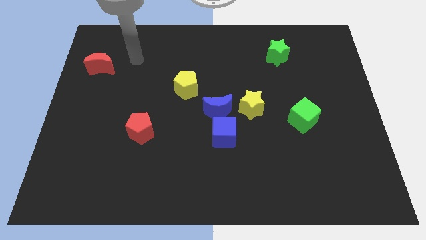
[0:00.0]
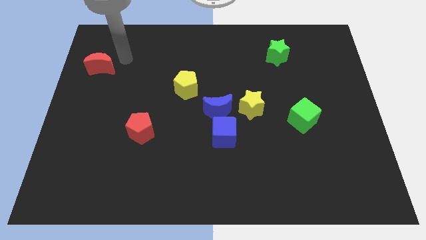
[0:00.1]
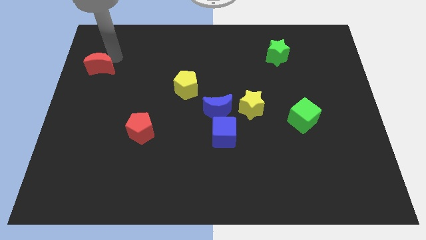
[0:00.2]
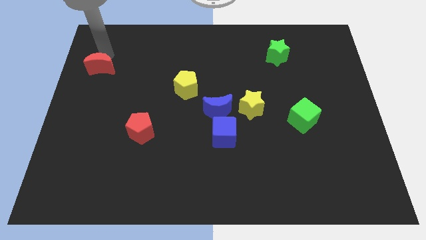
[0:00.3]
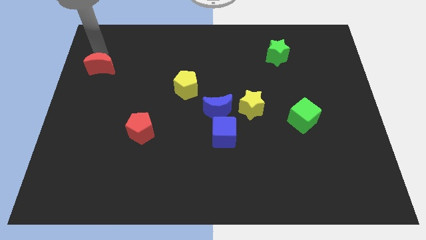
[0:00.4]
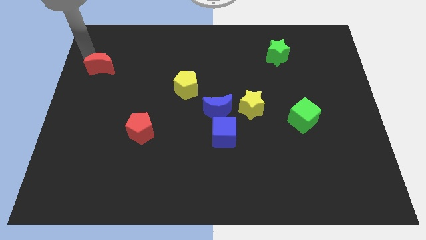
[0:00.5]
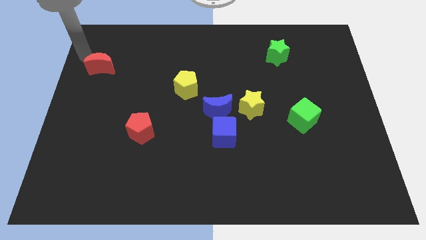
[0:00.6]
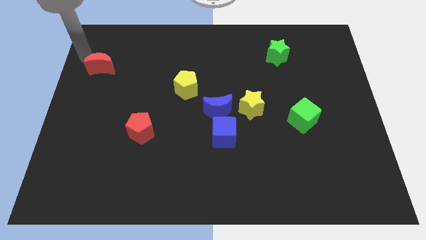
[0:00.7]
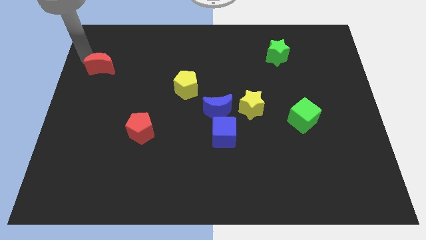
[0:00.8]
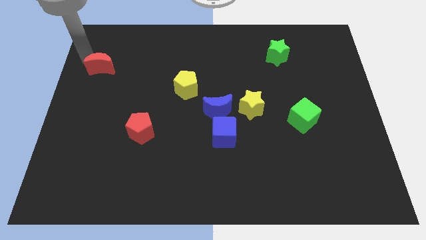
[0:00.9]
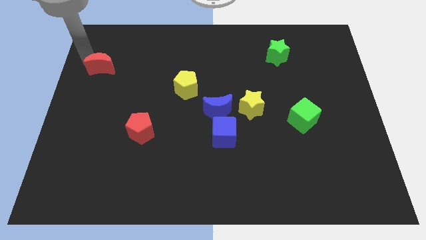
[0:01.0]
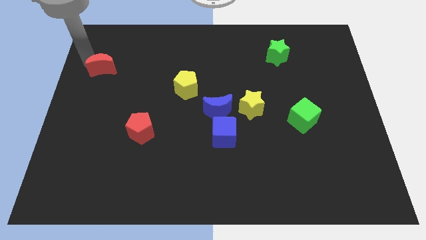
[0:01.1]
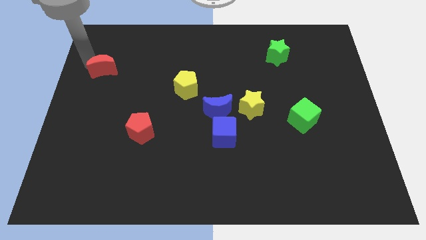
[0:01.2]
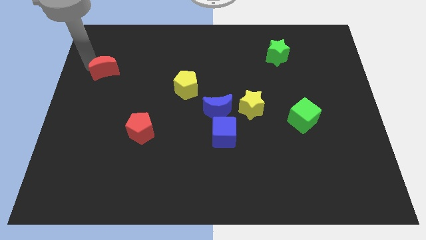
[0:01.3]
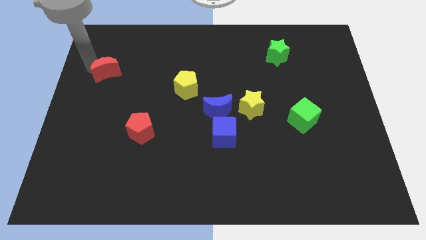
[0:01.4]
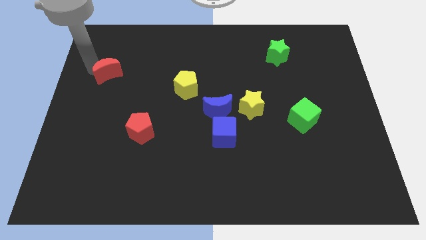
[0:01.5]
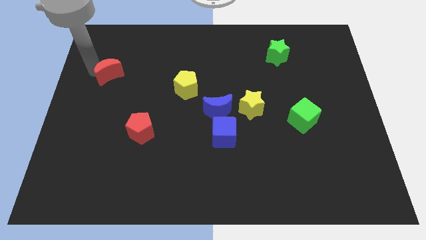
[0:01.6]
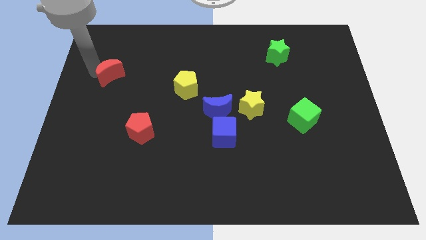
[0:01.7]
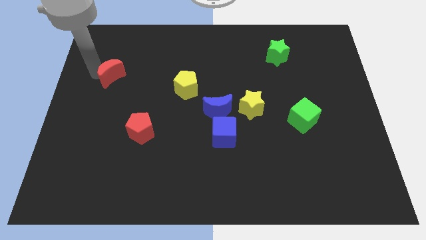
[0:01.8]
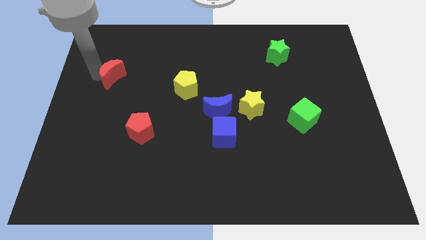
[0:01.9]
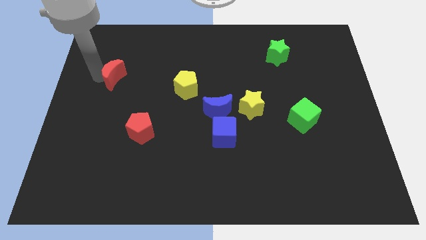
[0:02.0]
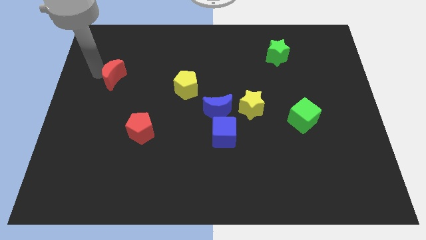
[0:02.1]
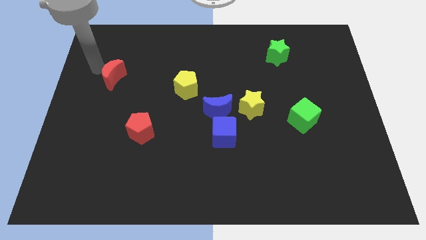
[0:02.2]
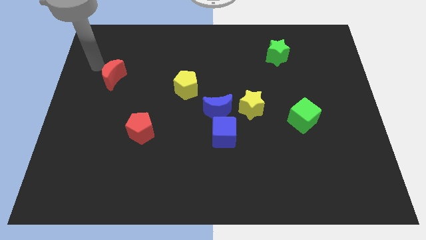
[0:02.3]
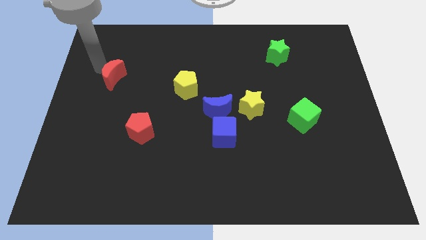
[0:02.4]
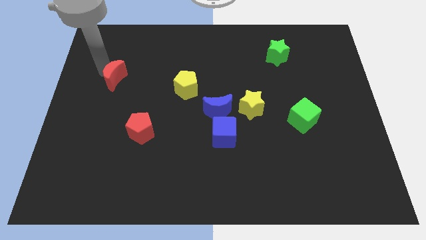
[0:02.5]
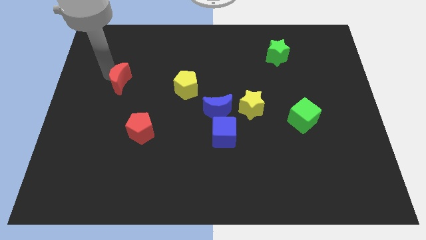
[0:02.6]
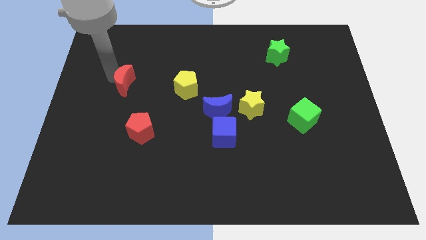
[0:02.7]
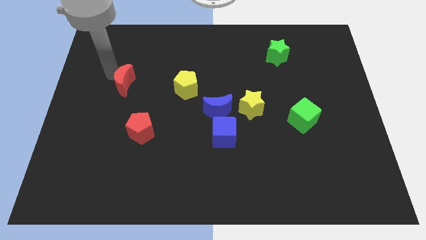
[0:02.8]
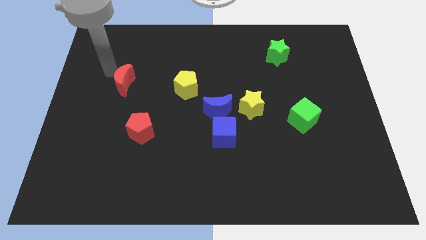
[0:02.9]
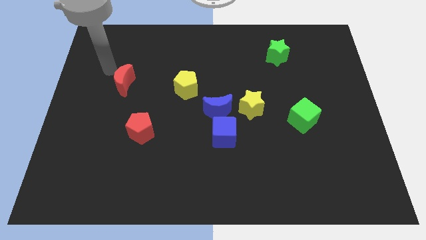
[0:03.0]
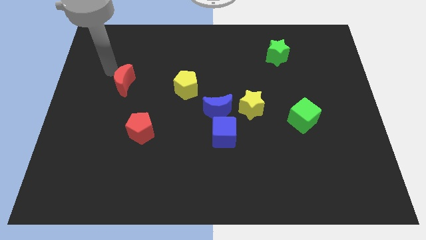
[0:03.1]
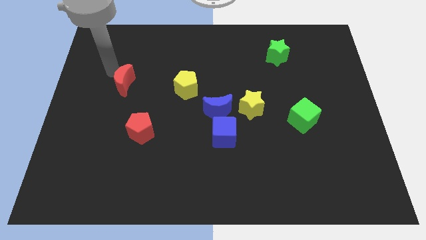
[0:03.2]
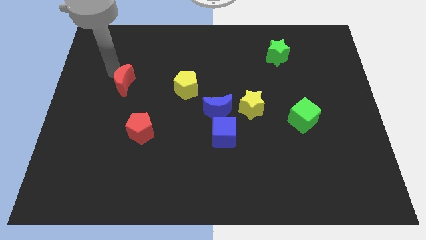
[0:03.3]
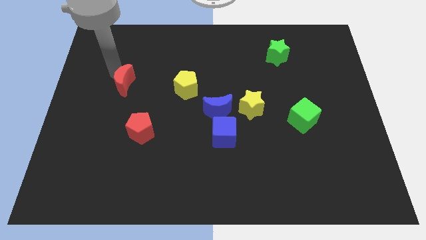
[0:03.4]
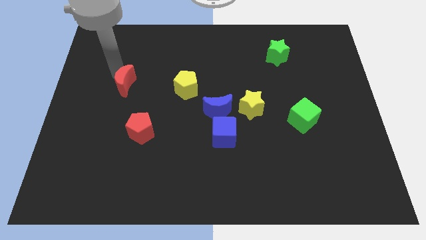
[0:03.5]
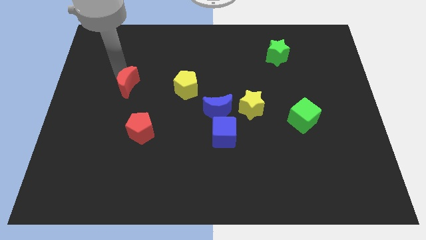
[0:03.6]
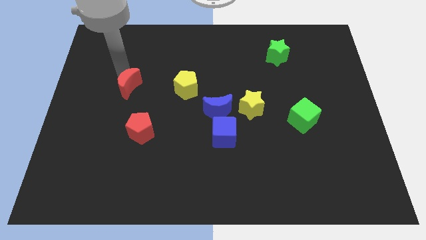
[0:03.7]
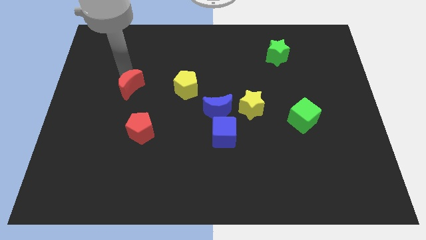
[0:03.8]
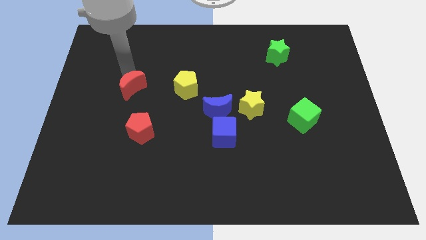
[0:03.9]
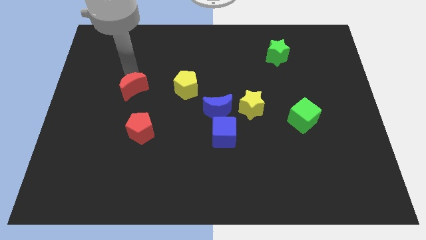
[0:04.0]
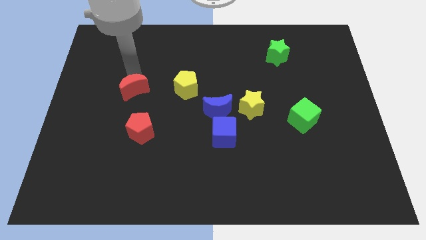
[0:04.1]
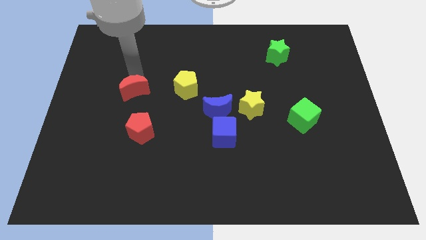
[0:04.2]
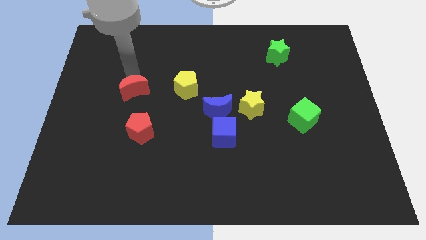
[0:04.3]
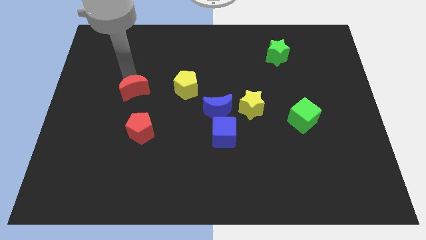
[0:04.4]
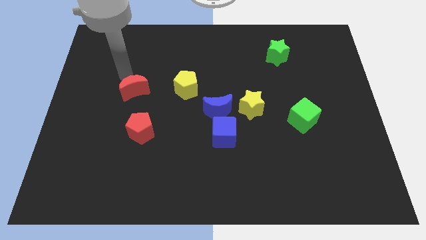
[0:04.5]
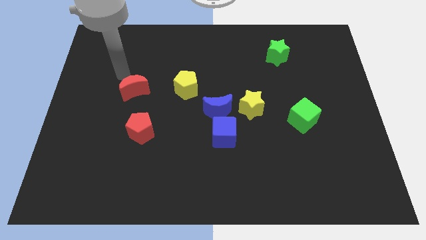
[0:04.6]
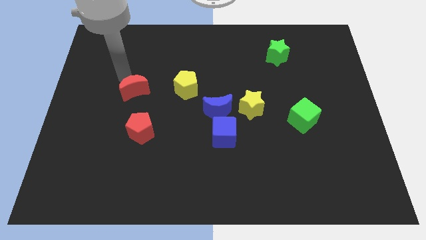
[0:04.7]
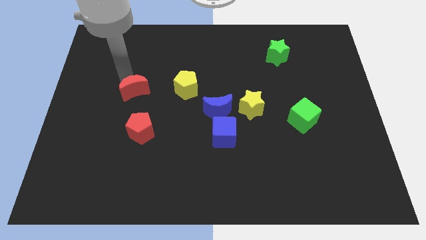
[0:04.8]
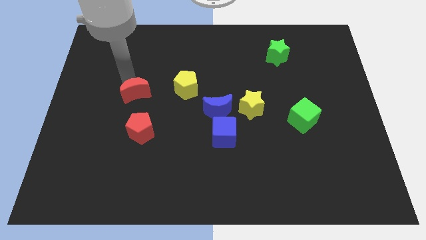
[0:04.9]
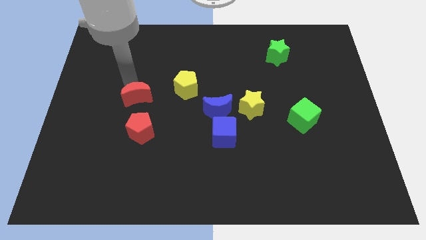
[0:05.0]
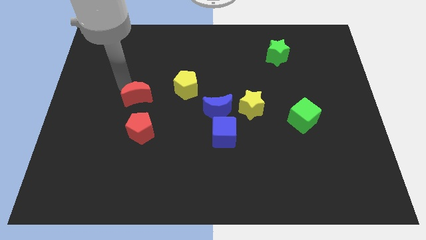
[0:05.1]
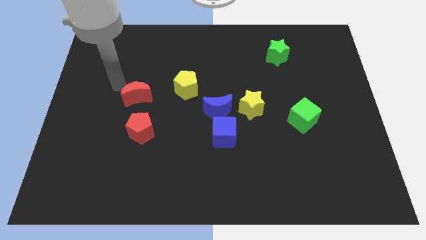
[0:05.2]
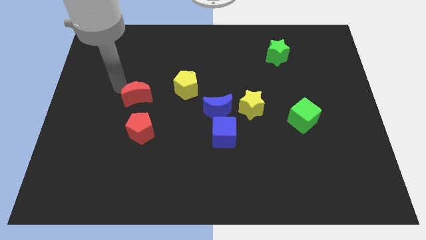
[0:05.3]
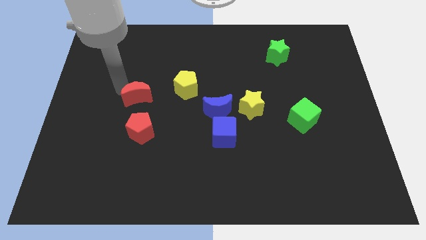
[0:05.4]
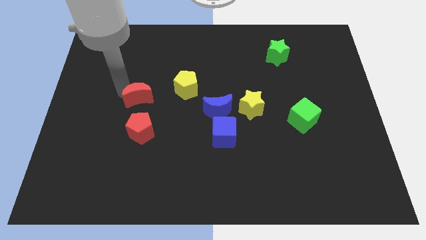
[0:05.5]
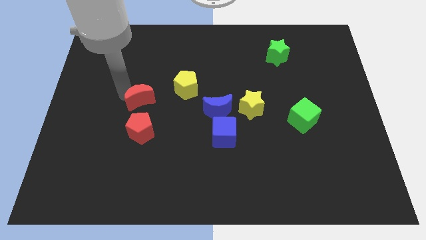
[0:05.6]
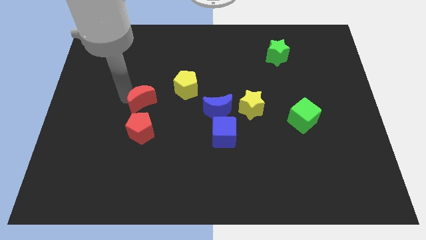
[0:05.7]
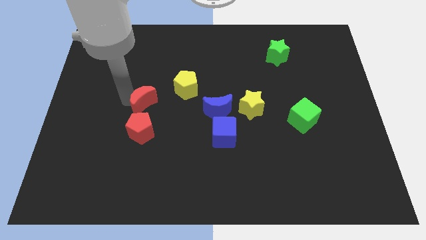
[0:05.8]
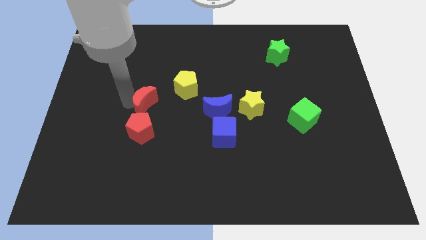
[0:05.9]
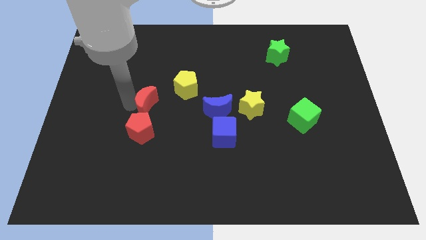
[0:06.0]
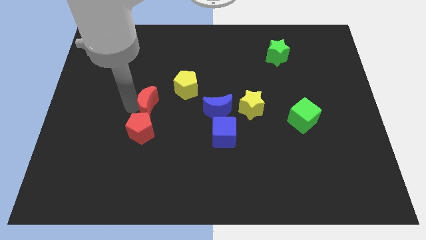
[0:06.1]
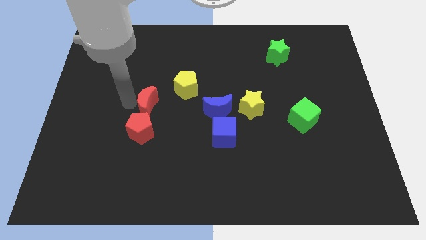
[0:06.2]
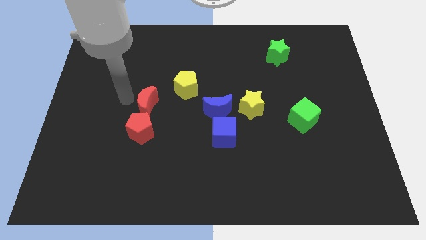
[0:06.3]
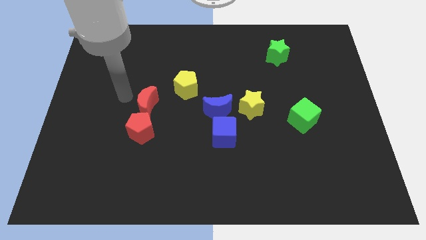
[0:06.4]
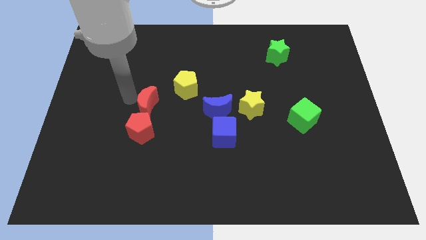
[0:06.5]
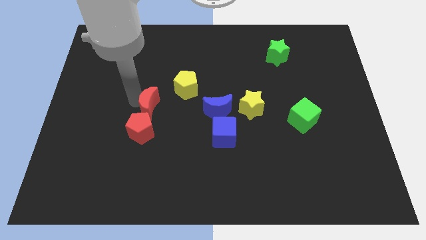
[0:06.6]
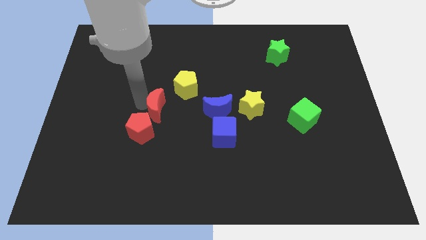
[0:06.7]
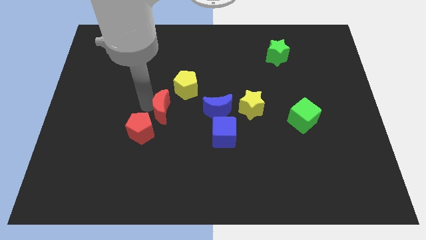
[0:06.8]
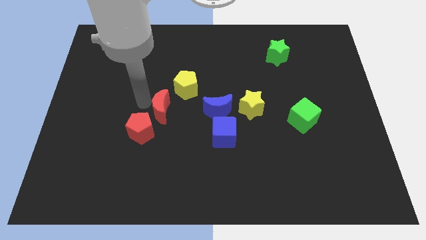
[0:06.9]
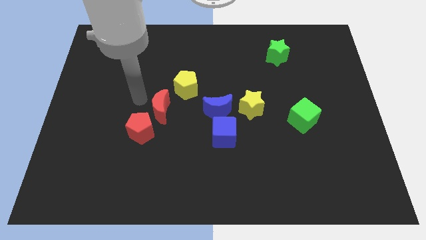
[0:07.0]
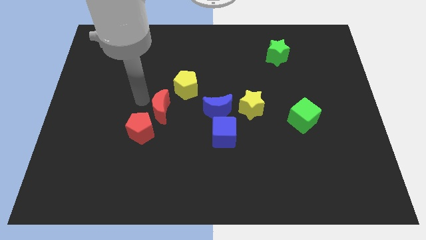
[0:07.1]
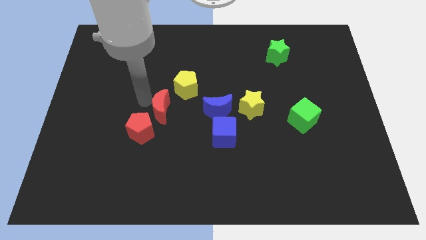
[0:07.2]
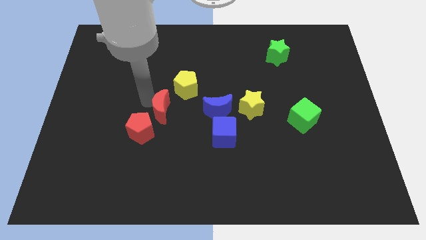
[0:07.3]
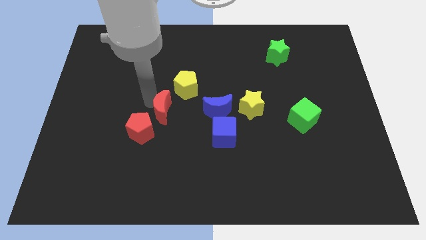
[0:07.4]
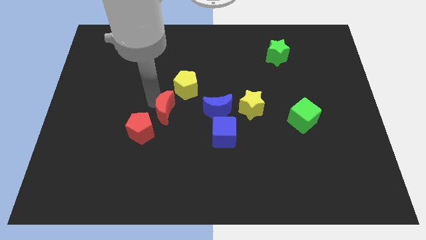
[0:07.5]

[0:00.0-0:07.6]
push the red moon below the yellow pentagon

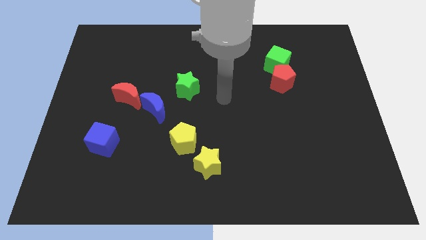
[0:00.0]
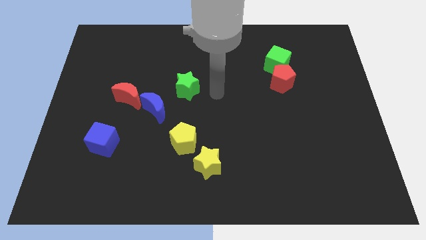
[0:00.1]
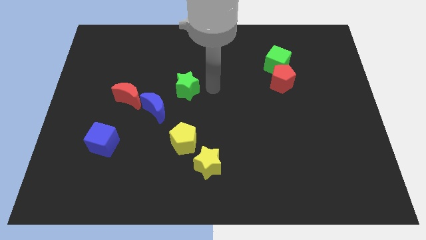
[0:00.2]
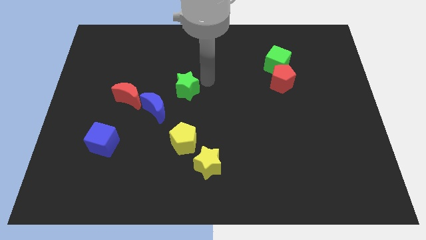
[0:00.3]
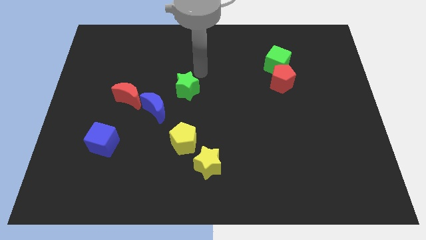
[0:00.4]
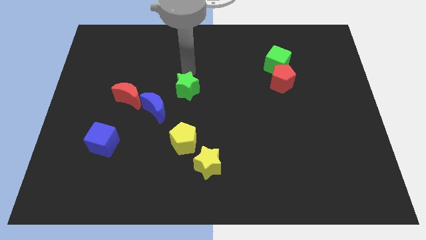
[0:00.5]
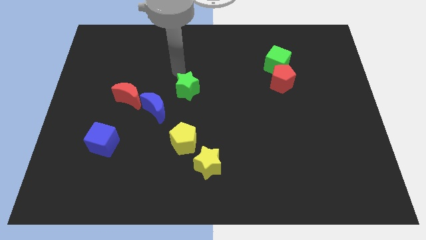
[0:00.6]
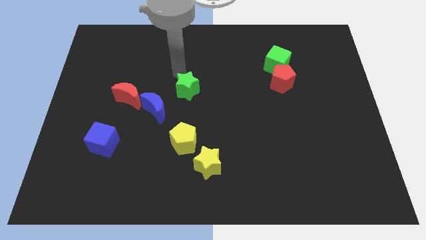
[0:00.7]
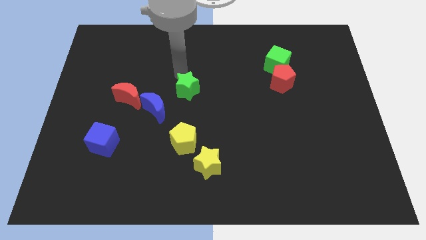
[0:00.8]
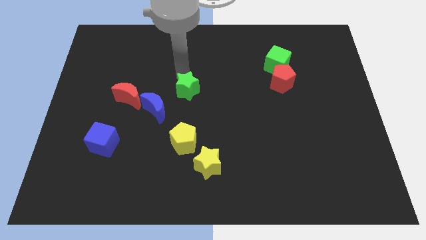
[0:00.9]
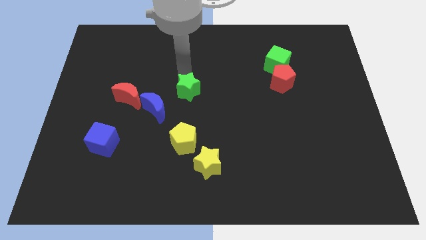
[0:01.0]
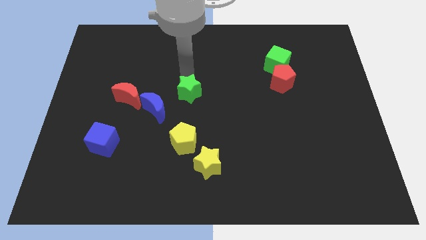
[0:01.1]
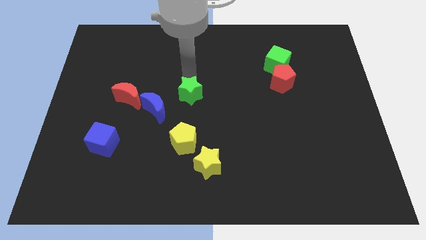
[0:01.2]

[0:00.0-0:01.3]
move the green star just right of the blue moon
